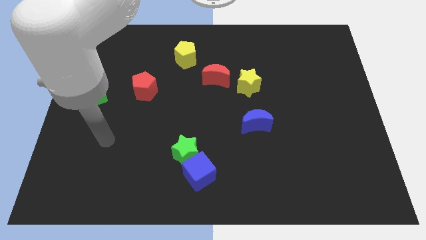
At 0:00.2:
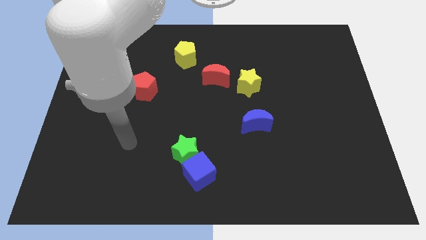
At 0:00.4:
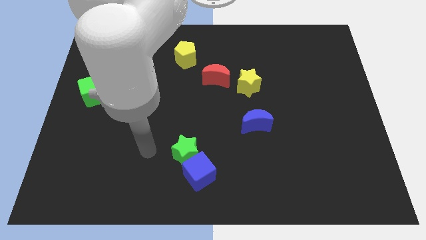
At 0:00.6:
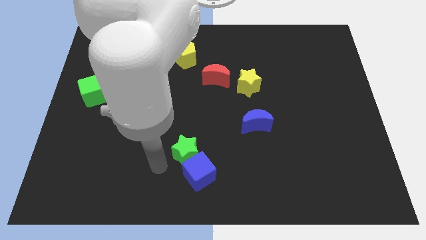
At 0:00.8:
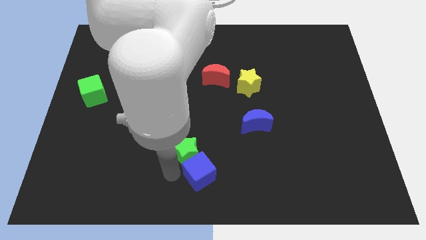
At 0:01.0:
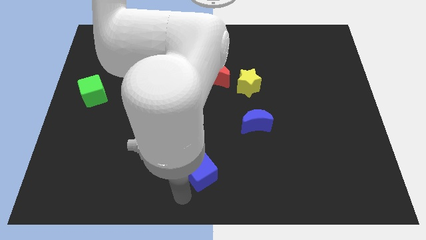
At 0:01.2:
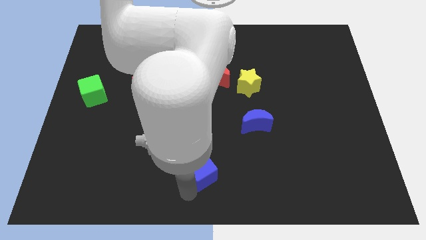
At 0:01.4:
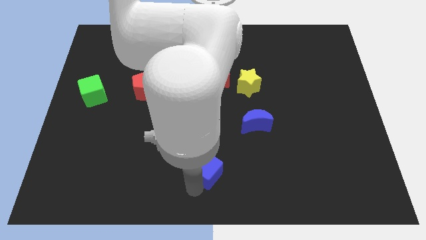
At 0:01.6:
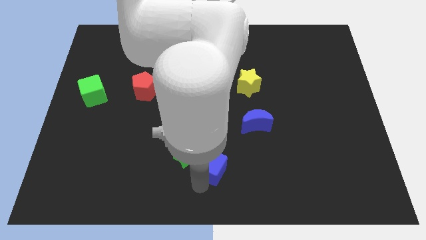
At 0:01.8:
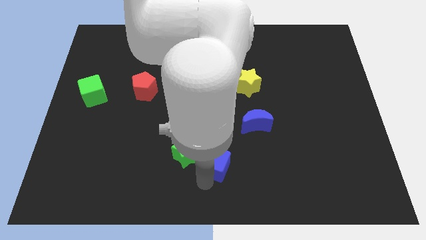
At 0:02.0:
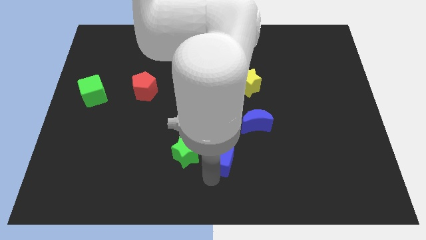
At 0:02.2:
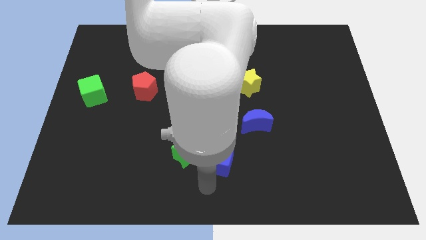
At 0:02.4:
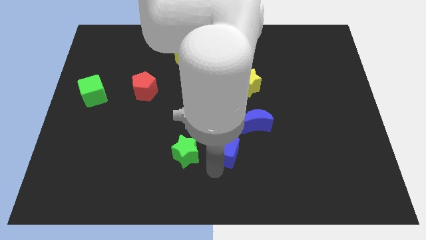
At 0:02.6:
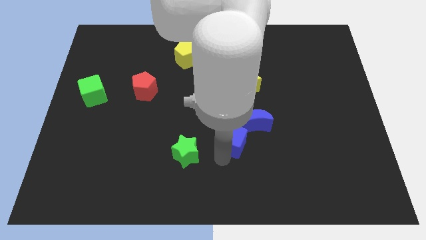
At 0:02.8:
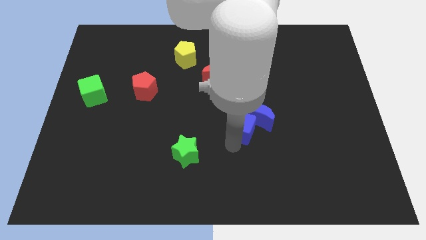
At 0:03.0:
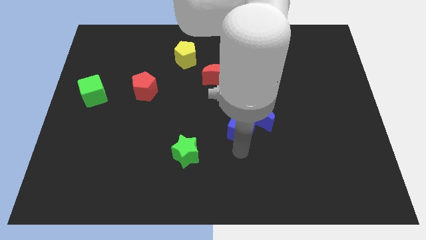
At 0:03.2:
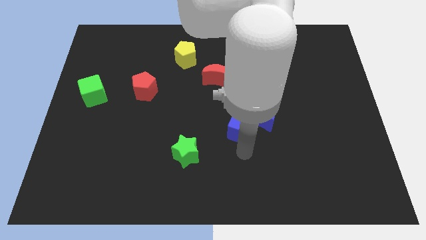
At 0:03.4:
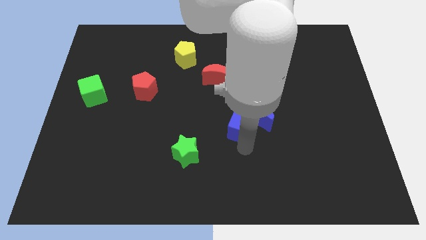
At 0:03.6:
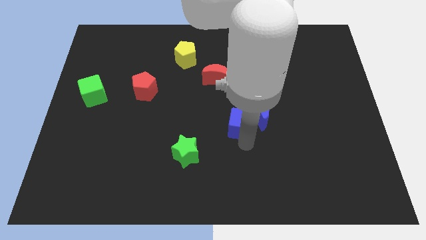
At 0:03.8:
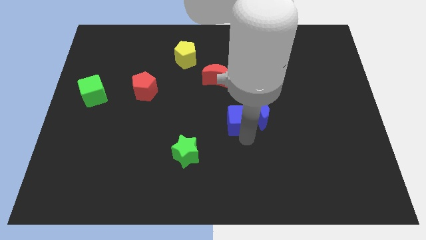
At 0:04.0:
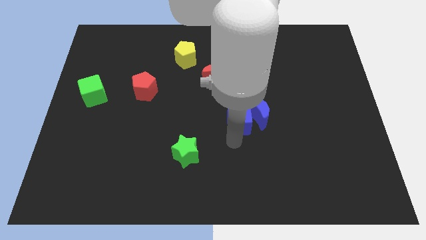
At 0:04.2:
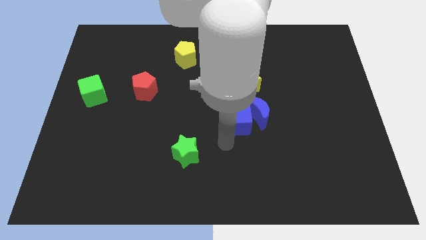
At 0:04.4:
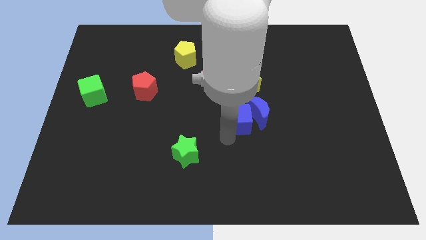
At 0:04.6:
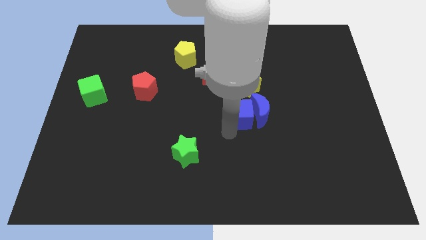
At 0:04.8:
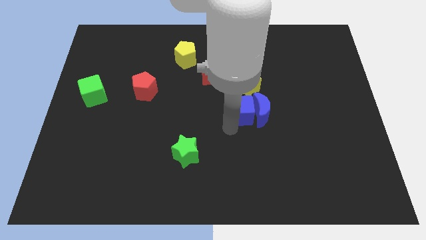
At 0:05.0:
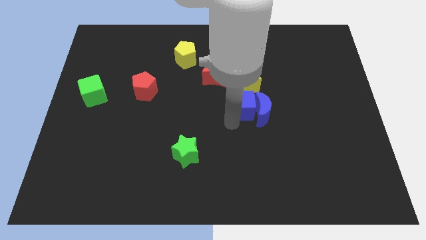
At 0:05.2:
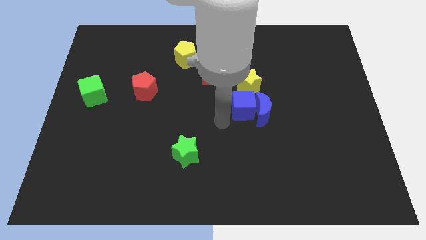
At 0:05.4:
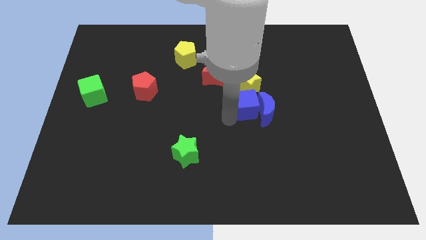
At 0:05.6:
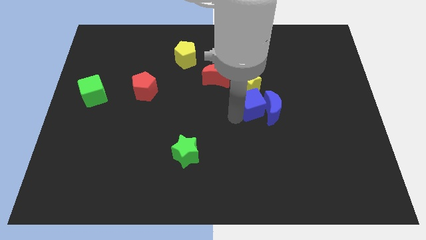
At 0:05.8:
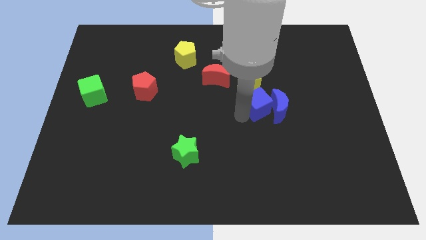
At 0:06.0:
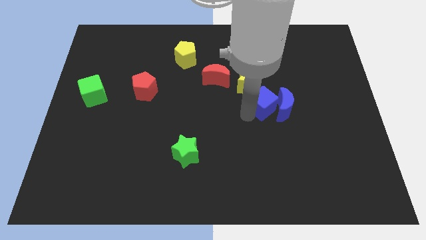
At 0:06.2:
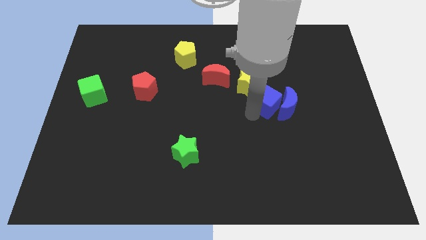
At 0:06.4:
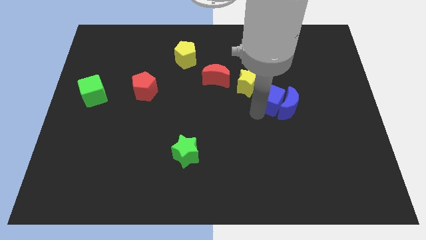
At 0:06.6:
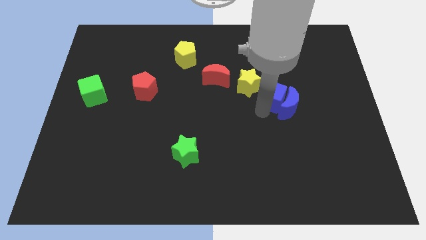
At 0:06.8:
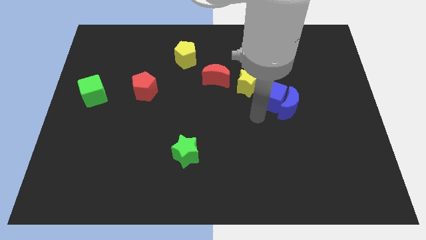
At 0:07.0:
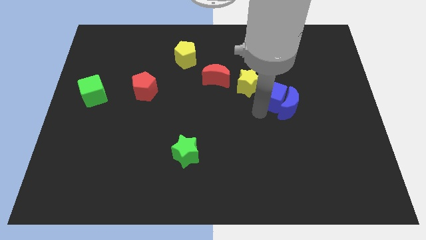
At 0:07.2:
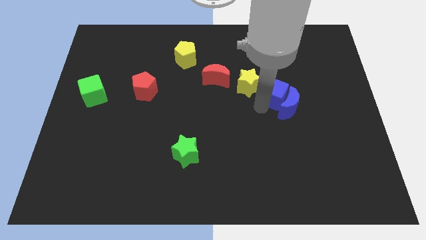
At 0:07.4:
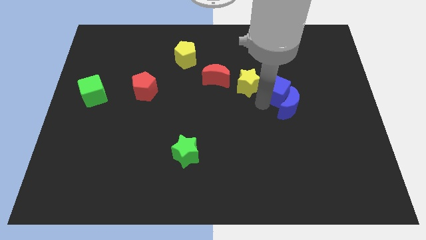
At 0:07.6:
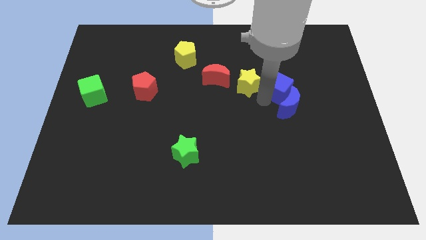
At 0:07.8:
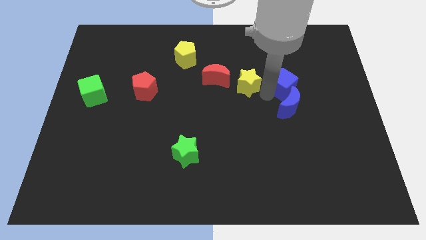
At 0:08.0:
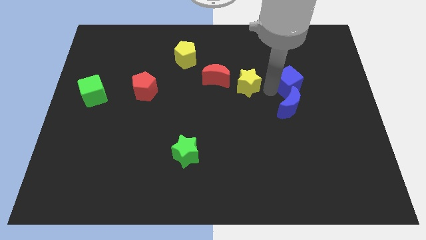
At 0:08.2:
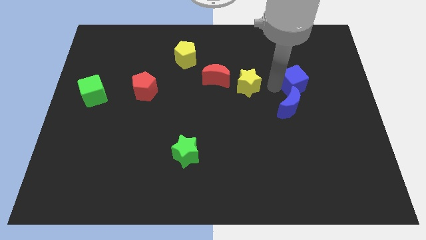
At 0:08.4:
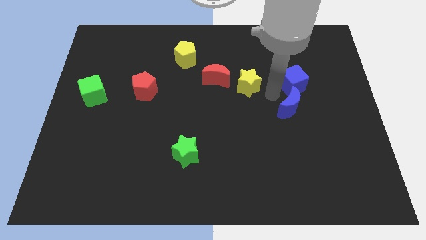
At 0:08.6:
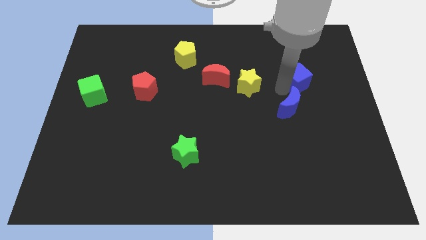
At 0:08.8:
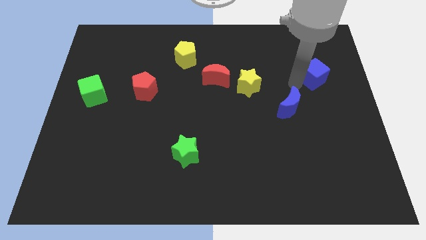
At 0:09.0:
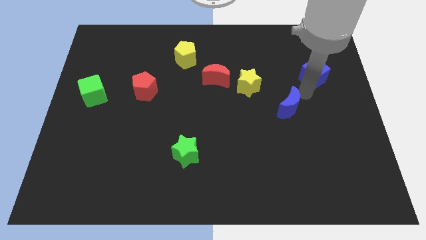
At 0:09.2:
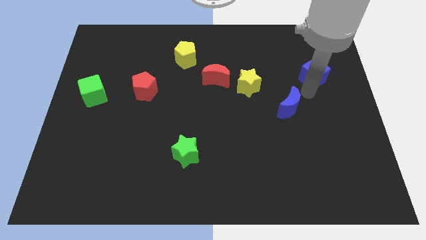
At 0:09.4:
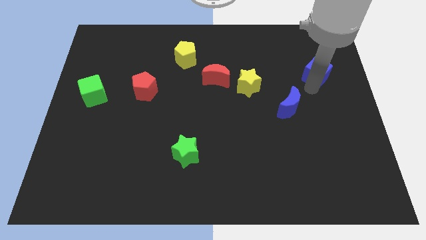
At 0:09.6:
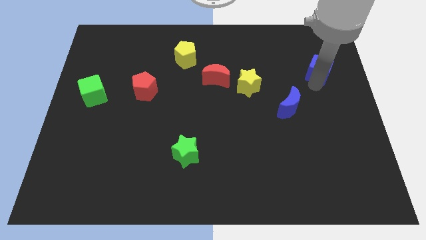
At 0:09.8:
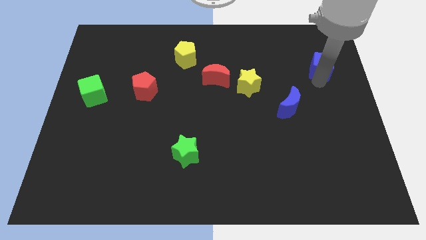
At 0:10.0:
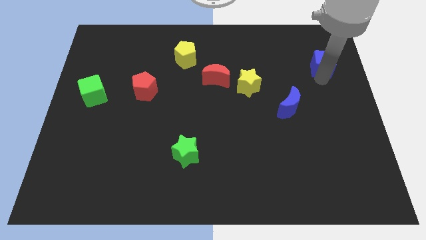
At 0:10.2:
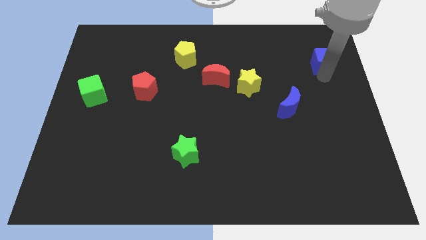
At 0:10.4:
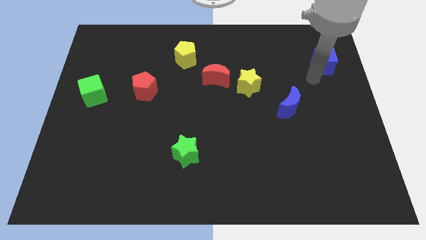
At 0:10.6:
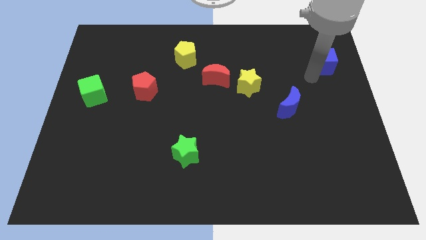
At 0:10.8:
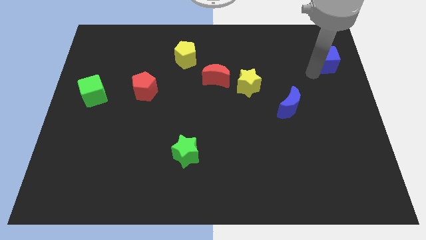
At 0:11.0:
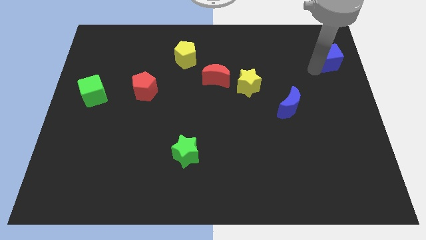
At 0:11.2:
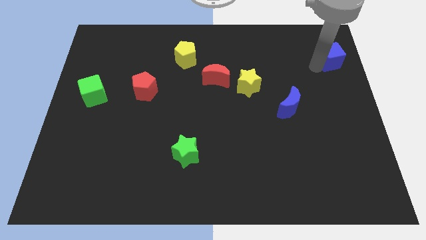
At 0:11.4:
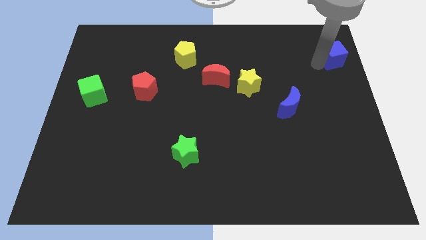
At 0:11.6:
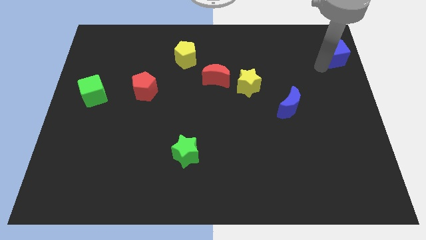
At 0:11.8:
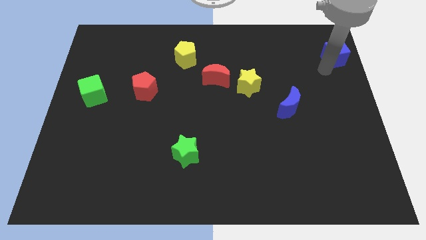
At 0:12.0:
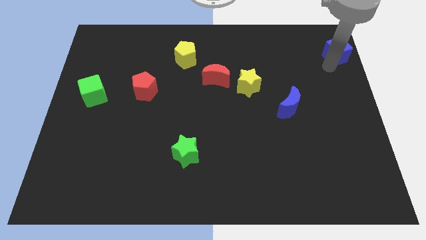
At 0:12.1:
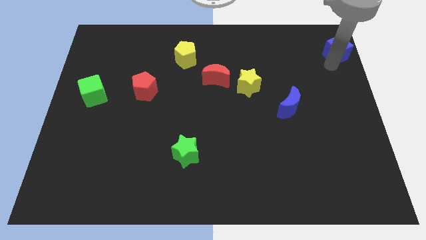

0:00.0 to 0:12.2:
put the blue cube to the top right corner
